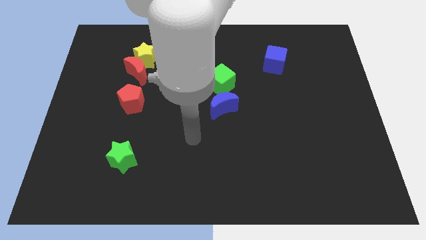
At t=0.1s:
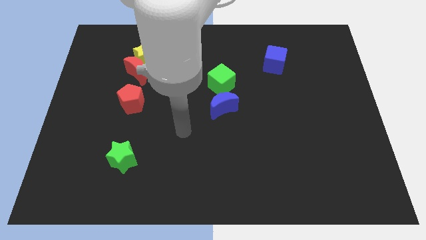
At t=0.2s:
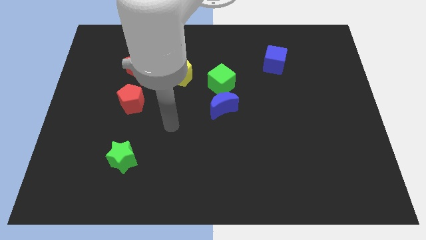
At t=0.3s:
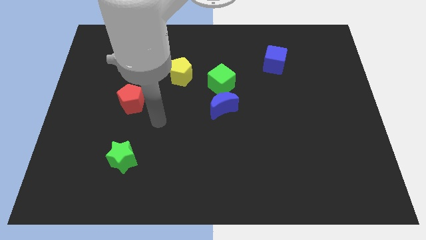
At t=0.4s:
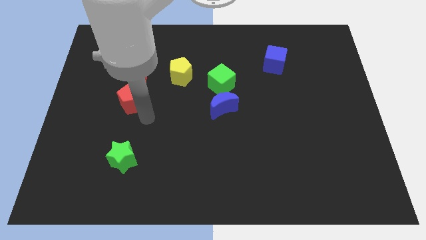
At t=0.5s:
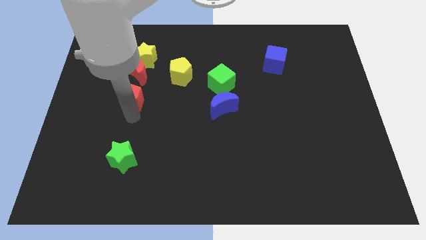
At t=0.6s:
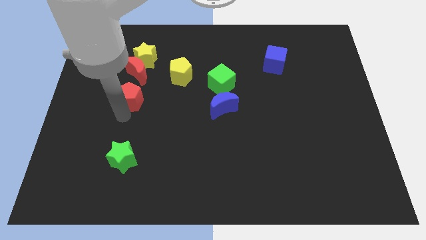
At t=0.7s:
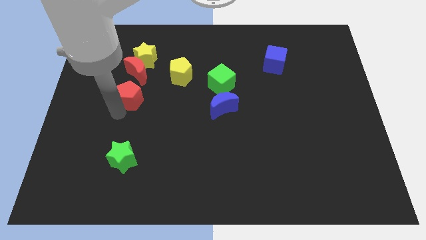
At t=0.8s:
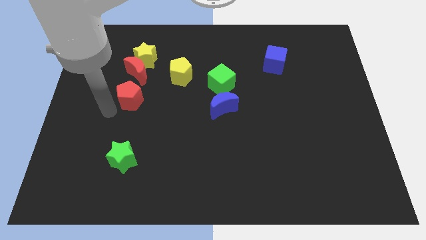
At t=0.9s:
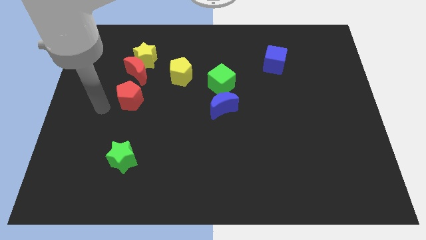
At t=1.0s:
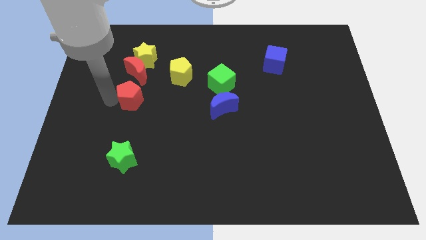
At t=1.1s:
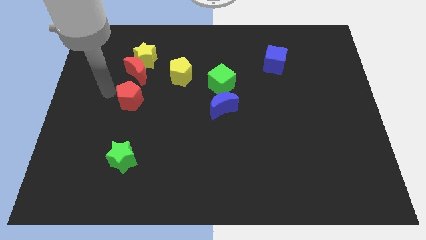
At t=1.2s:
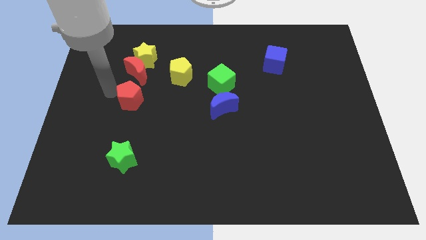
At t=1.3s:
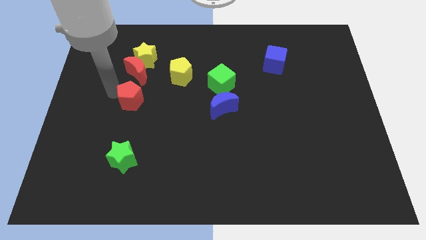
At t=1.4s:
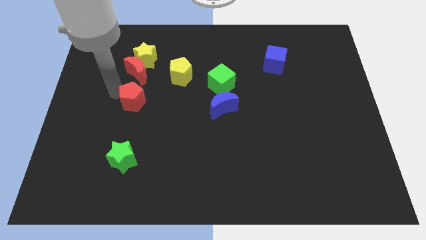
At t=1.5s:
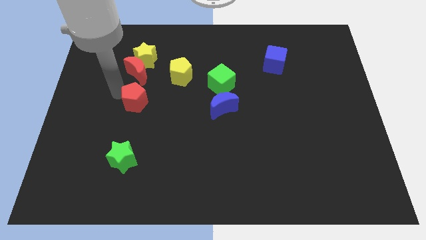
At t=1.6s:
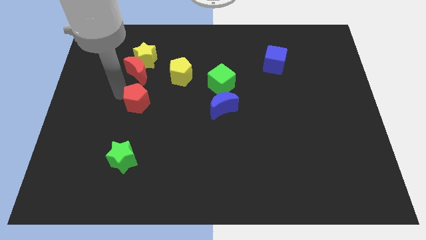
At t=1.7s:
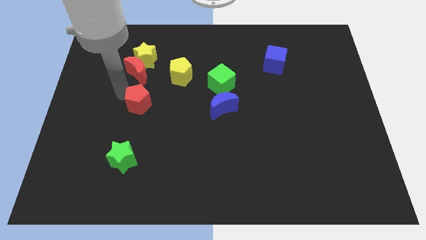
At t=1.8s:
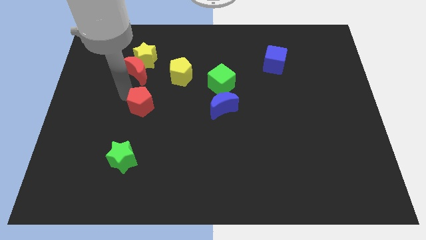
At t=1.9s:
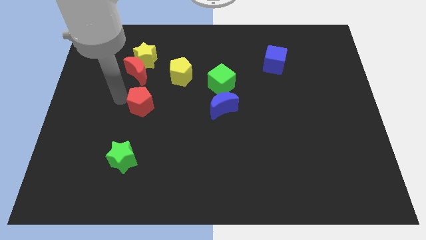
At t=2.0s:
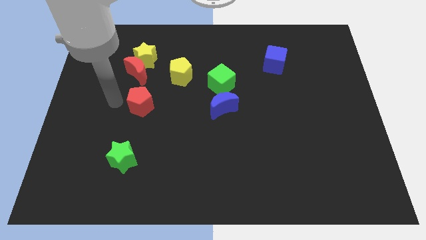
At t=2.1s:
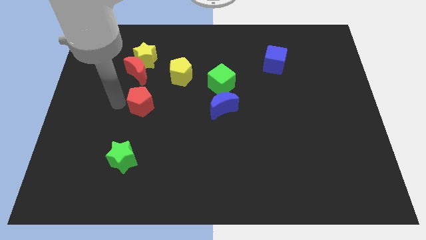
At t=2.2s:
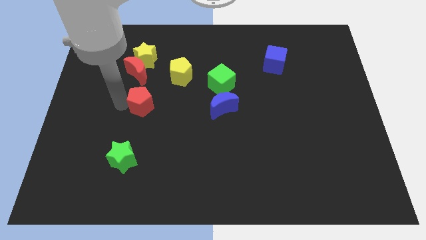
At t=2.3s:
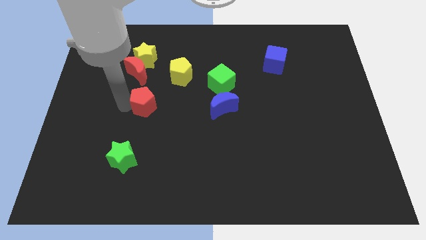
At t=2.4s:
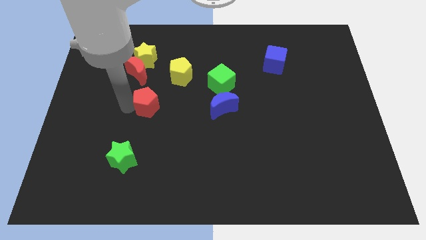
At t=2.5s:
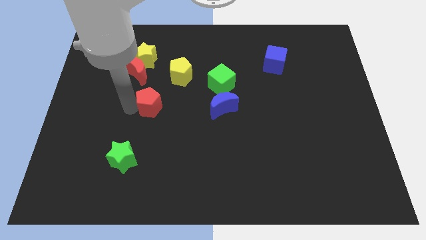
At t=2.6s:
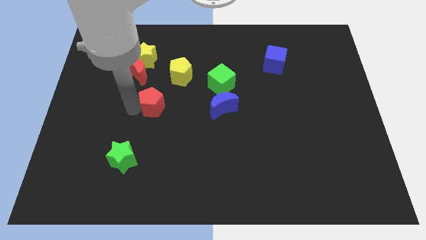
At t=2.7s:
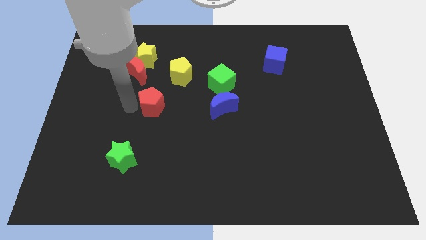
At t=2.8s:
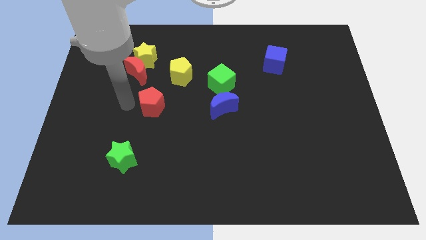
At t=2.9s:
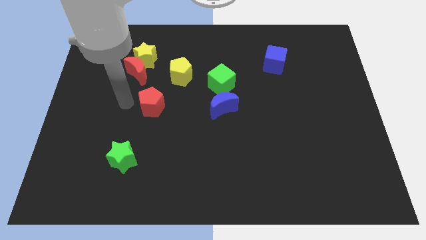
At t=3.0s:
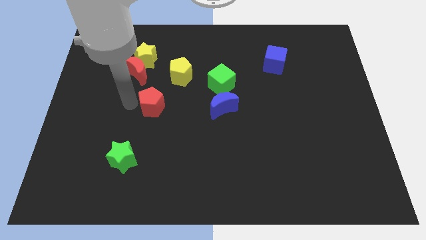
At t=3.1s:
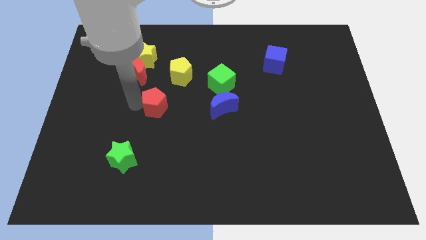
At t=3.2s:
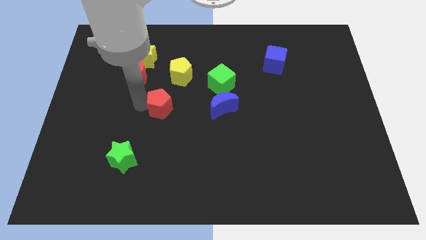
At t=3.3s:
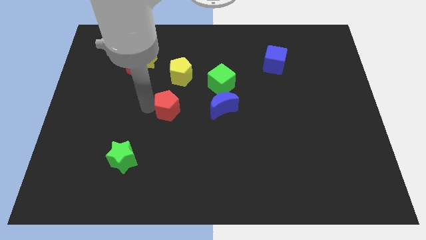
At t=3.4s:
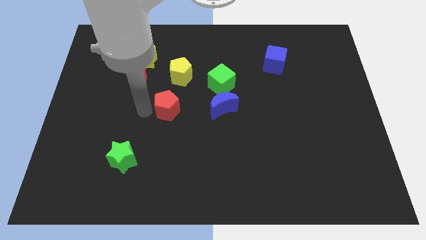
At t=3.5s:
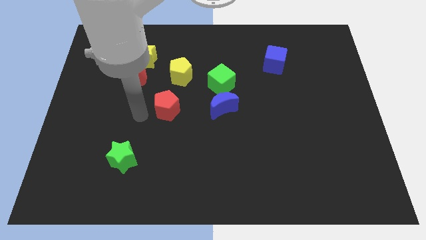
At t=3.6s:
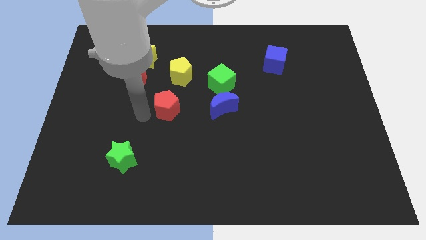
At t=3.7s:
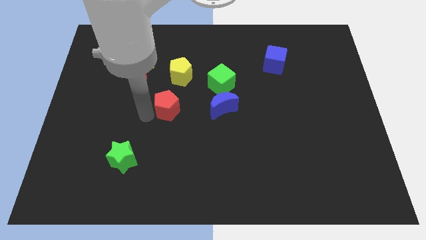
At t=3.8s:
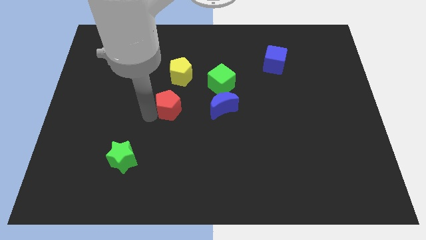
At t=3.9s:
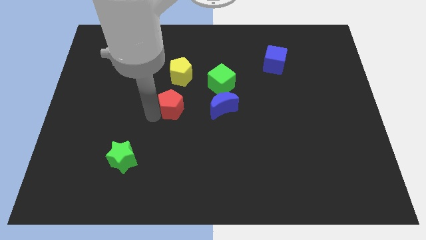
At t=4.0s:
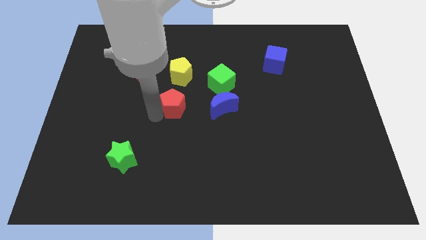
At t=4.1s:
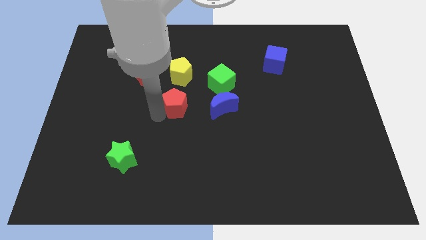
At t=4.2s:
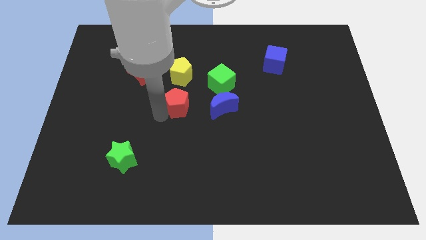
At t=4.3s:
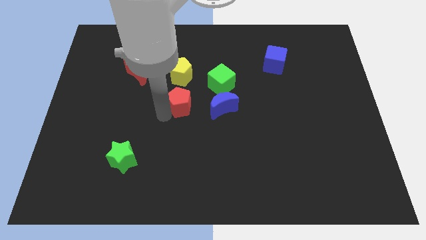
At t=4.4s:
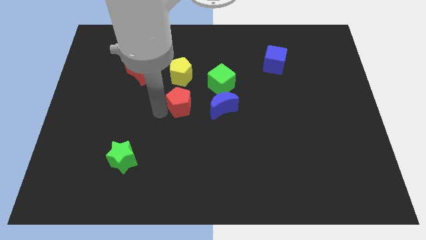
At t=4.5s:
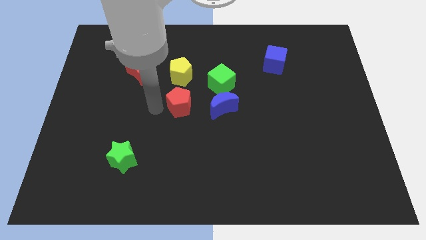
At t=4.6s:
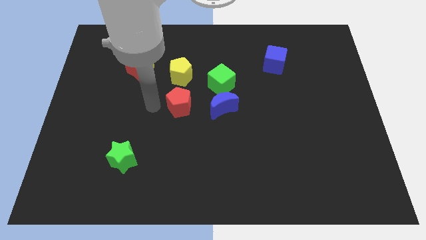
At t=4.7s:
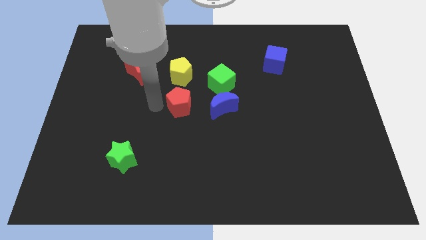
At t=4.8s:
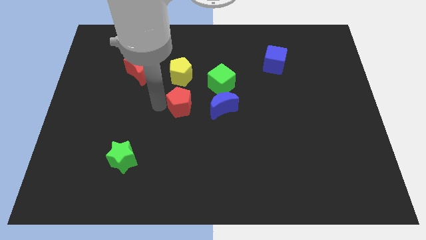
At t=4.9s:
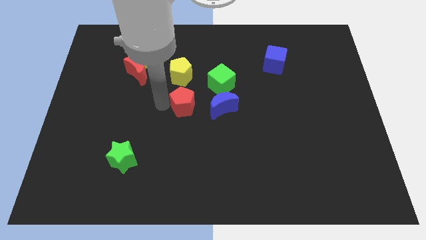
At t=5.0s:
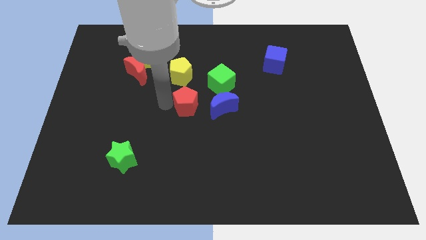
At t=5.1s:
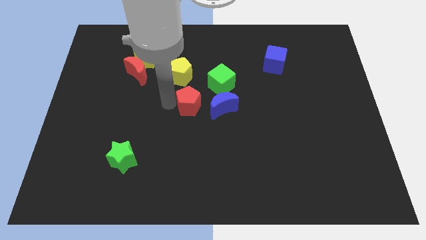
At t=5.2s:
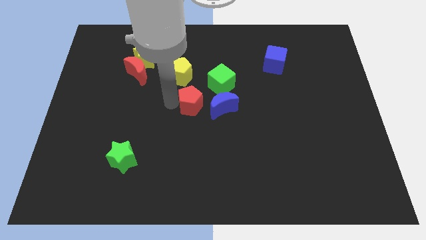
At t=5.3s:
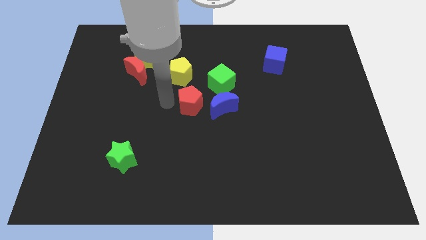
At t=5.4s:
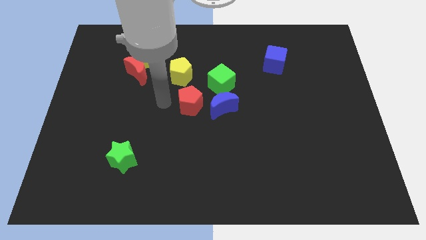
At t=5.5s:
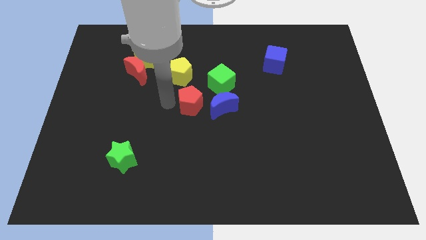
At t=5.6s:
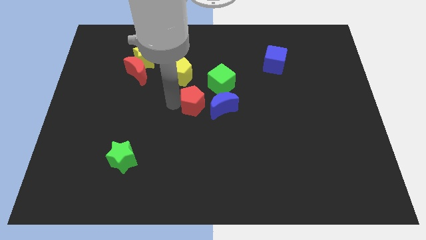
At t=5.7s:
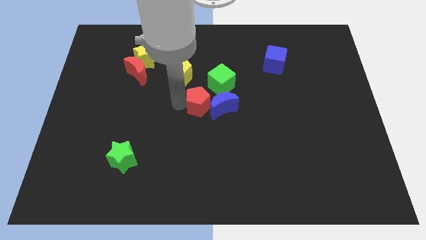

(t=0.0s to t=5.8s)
push the red pentagon close to the blue moon

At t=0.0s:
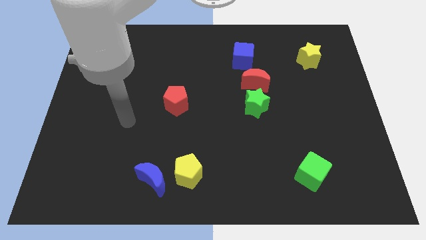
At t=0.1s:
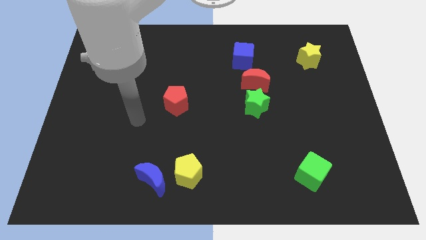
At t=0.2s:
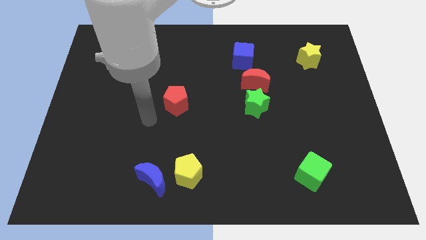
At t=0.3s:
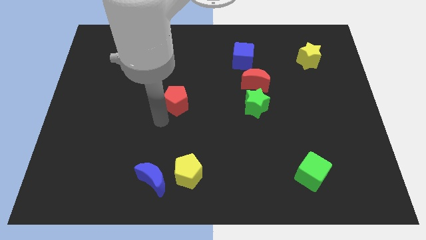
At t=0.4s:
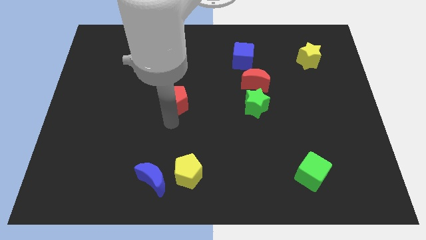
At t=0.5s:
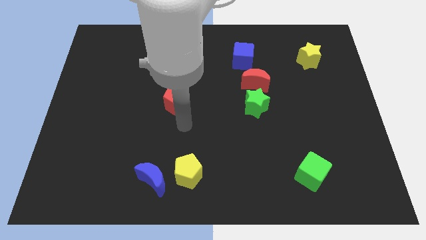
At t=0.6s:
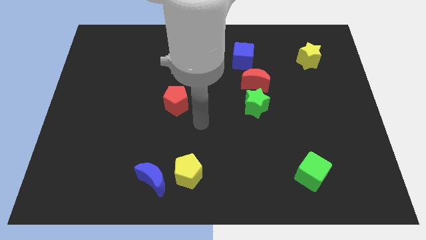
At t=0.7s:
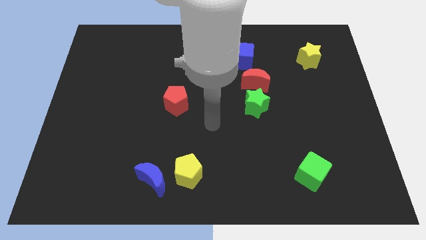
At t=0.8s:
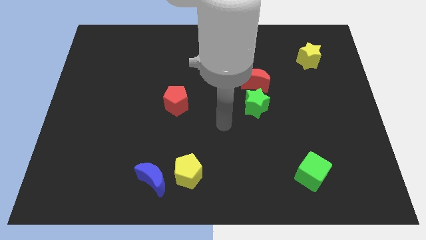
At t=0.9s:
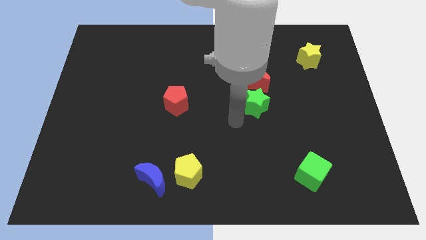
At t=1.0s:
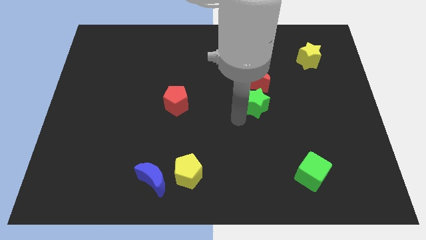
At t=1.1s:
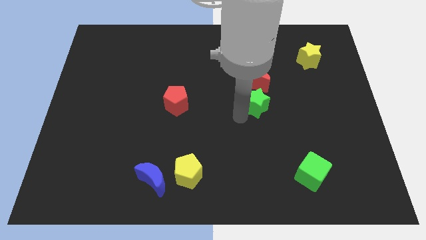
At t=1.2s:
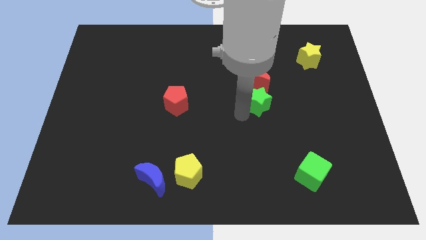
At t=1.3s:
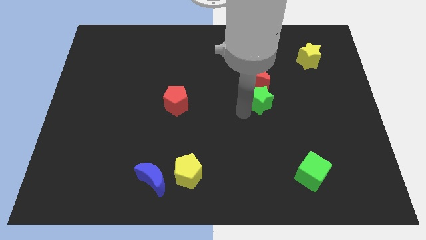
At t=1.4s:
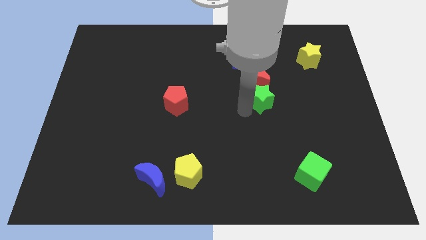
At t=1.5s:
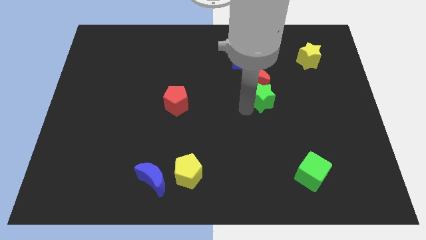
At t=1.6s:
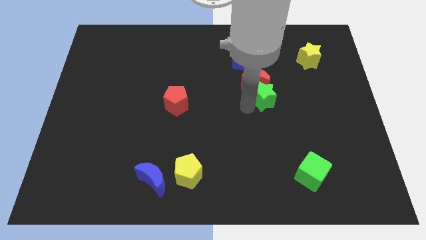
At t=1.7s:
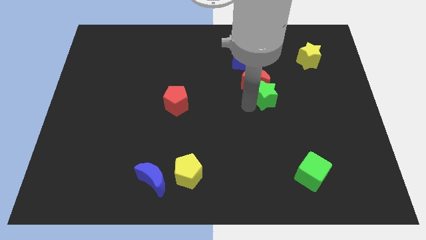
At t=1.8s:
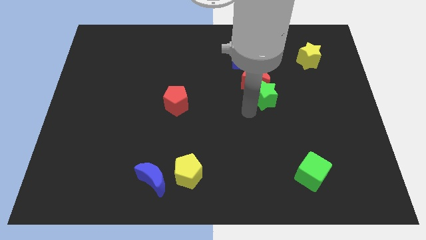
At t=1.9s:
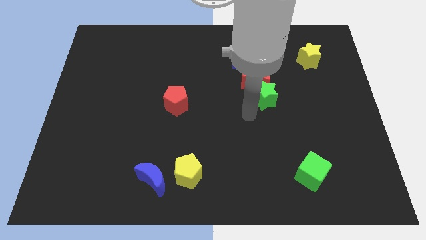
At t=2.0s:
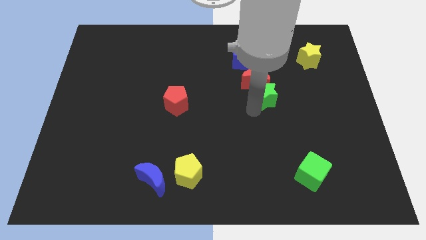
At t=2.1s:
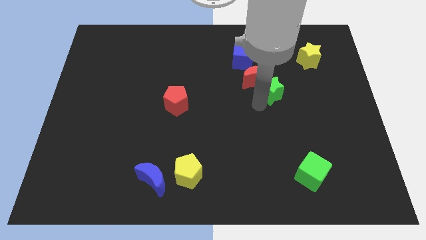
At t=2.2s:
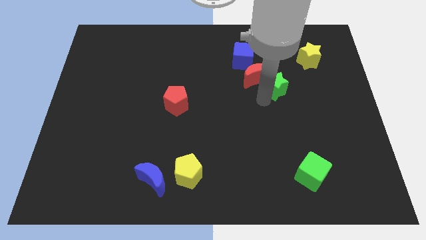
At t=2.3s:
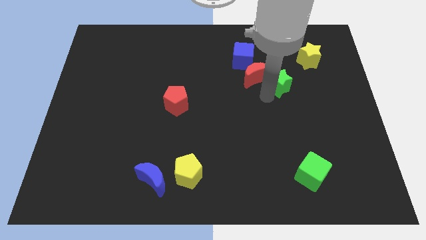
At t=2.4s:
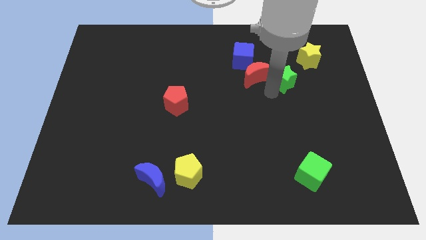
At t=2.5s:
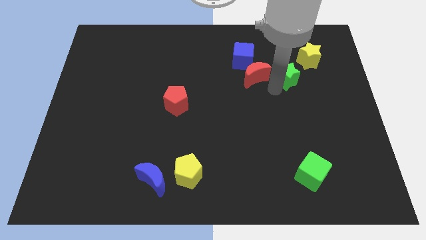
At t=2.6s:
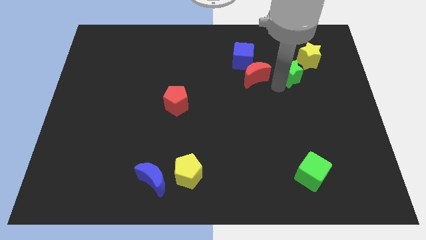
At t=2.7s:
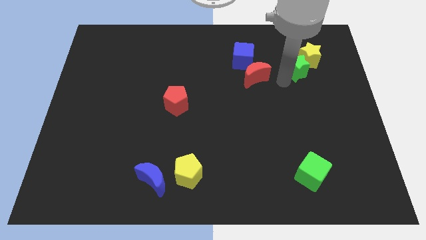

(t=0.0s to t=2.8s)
slide the green star to the yellow star
